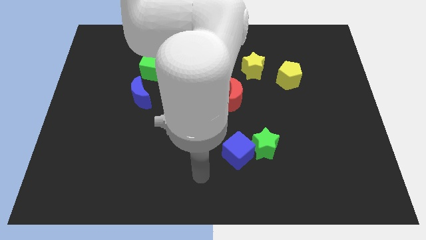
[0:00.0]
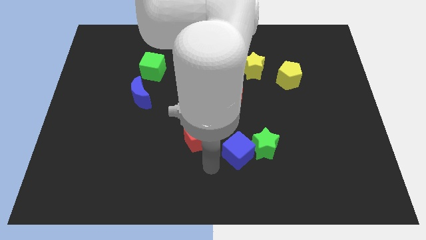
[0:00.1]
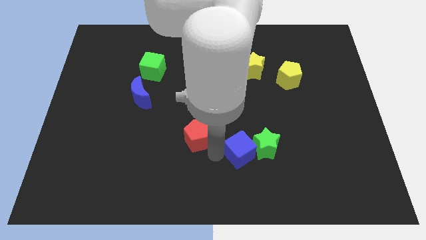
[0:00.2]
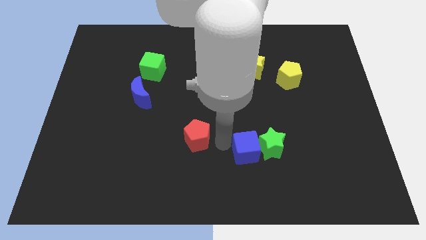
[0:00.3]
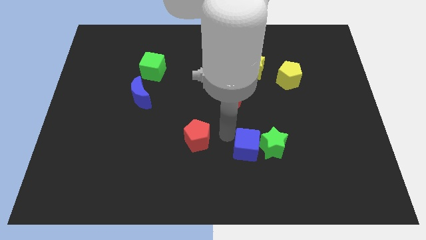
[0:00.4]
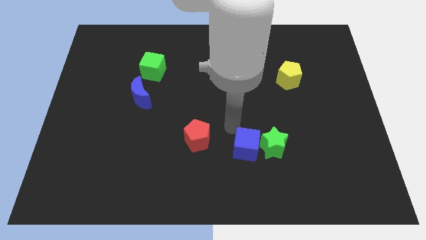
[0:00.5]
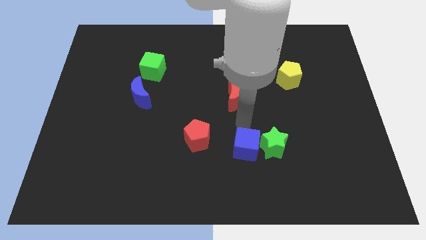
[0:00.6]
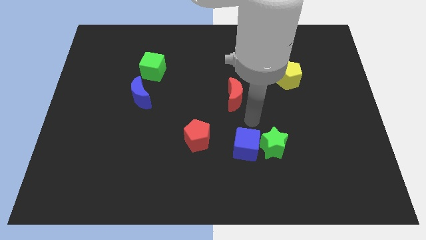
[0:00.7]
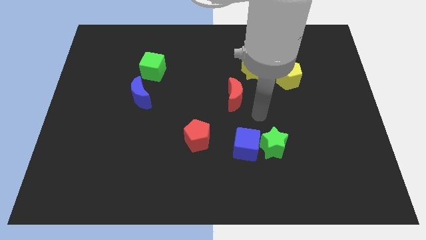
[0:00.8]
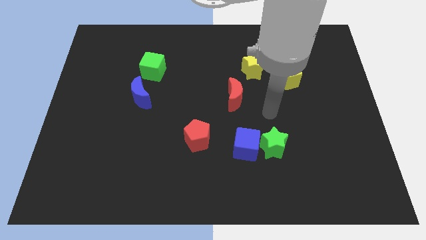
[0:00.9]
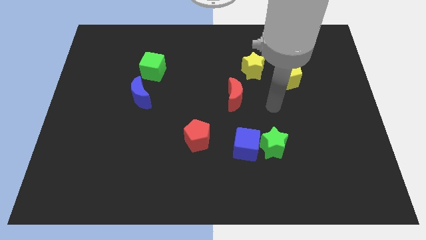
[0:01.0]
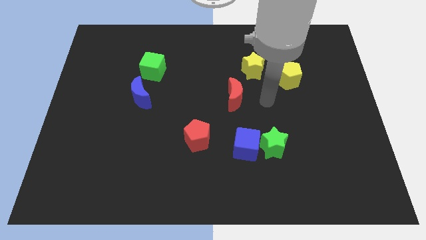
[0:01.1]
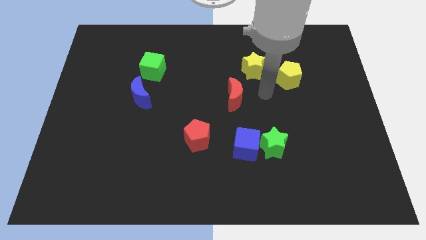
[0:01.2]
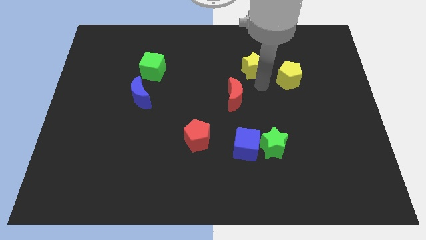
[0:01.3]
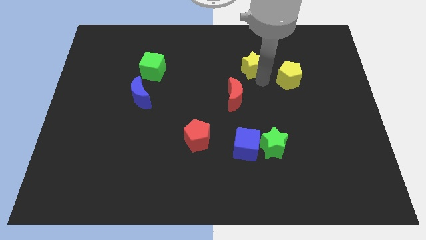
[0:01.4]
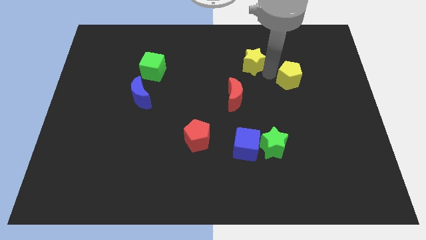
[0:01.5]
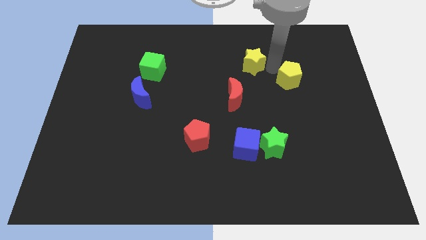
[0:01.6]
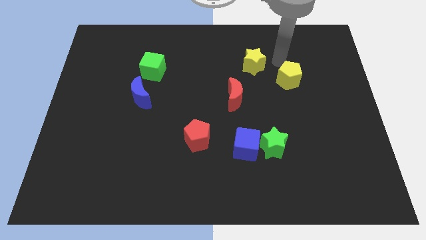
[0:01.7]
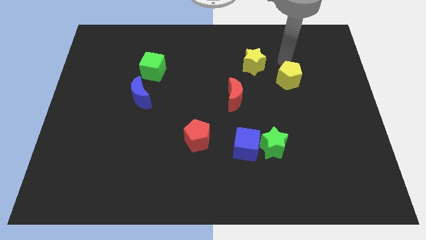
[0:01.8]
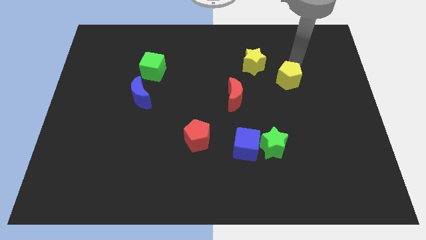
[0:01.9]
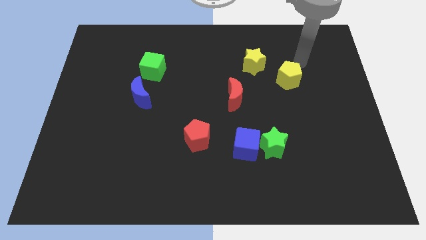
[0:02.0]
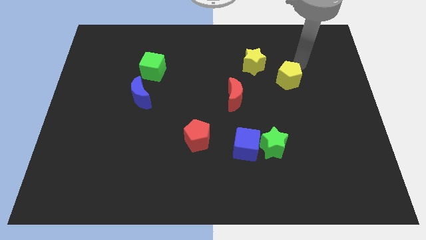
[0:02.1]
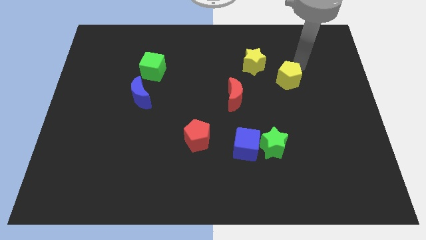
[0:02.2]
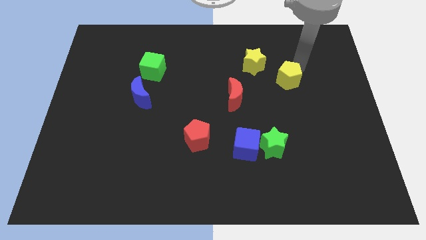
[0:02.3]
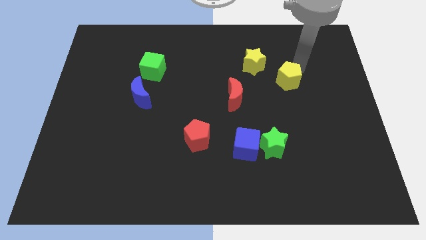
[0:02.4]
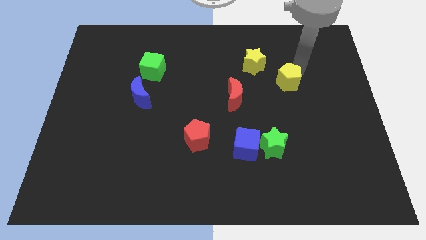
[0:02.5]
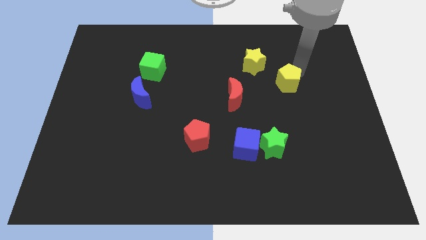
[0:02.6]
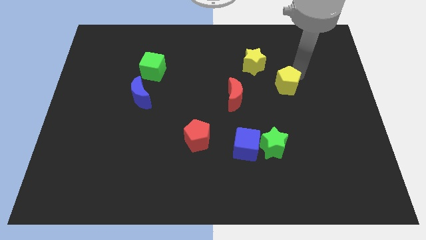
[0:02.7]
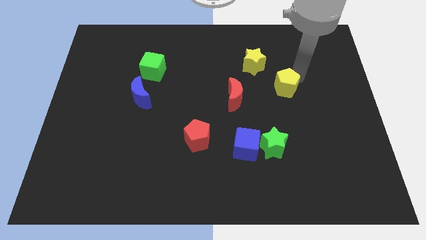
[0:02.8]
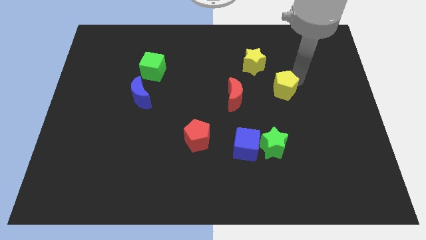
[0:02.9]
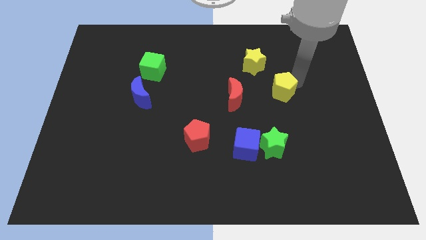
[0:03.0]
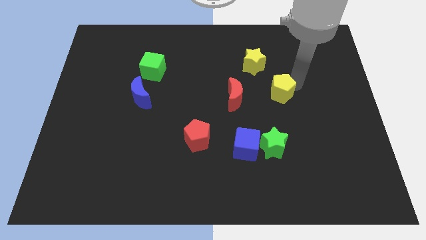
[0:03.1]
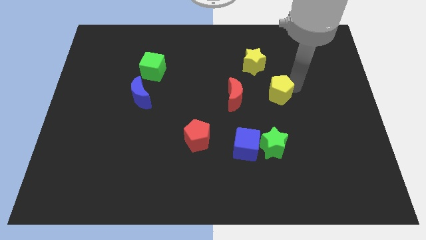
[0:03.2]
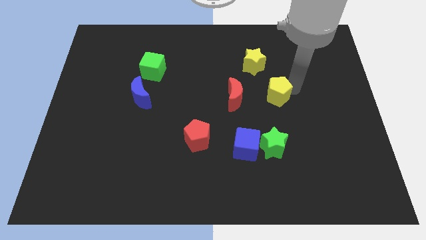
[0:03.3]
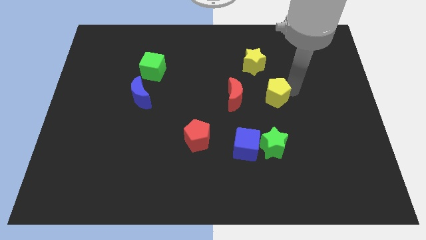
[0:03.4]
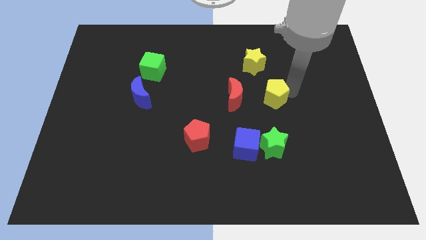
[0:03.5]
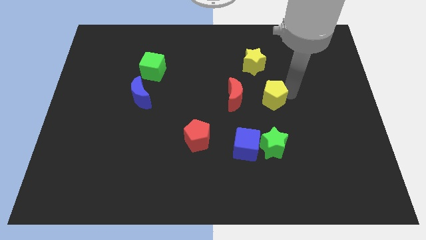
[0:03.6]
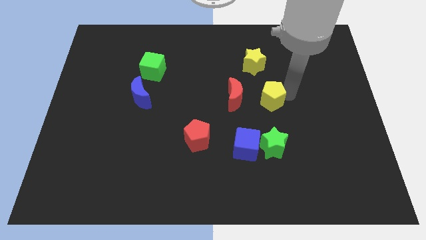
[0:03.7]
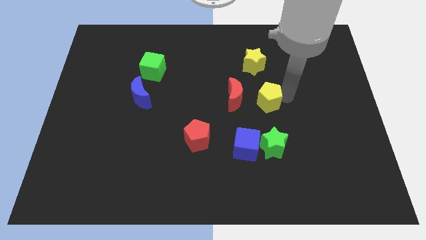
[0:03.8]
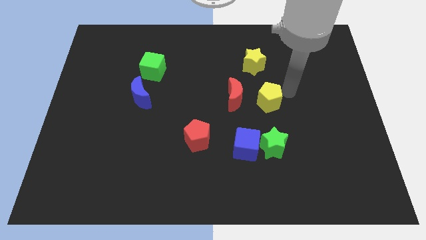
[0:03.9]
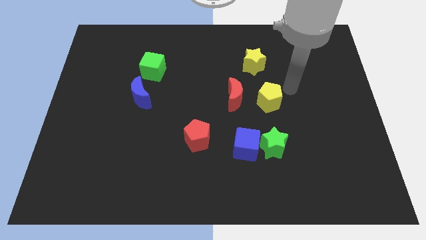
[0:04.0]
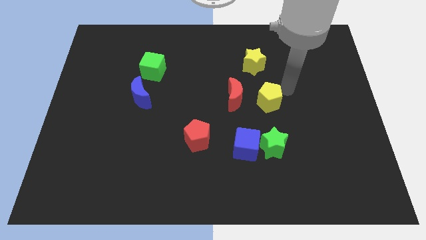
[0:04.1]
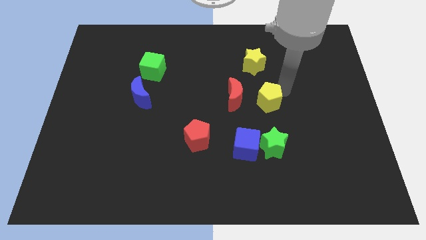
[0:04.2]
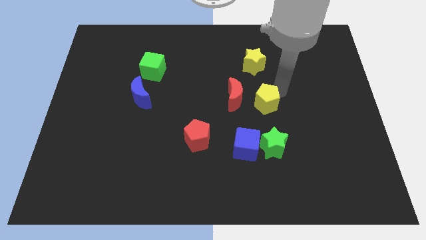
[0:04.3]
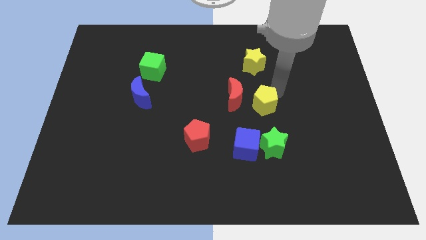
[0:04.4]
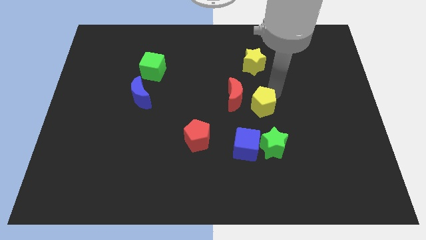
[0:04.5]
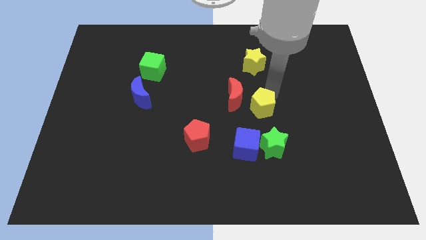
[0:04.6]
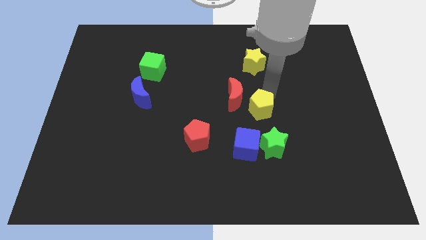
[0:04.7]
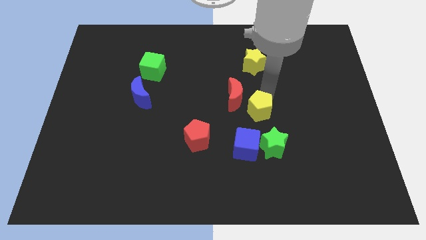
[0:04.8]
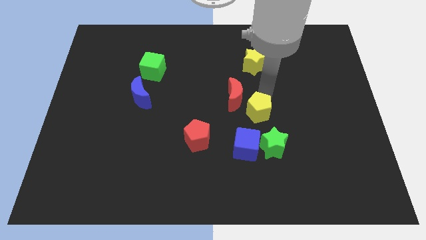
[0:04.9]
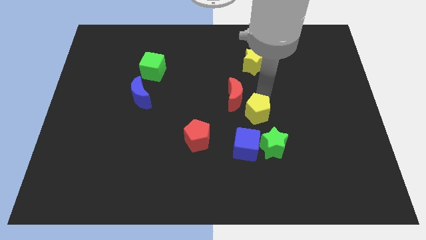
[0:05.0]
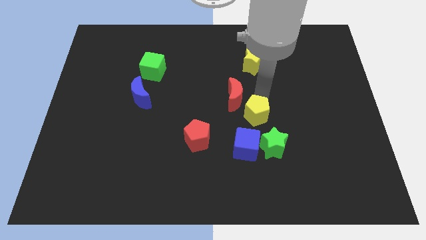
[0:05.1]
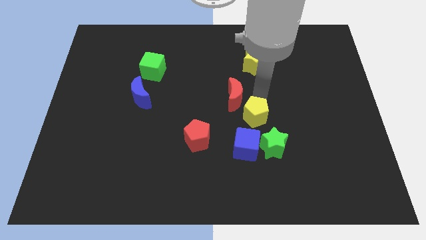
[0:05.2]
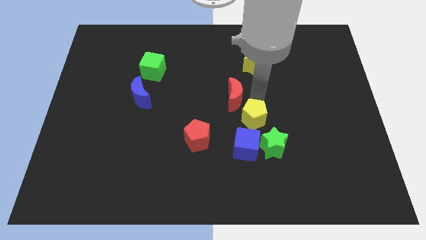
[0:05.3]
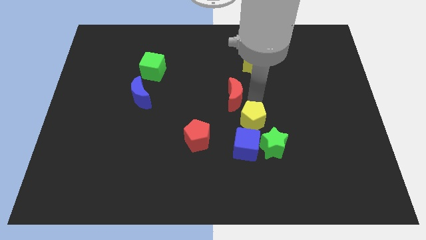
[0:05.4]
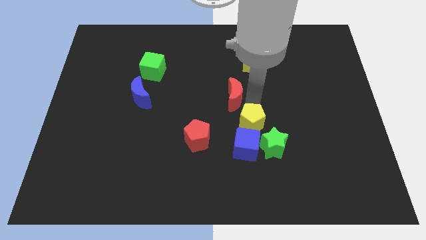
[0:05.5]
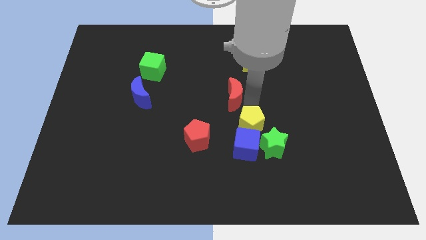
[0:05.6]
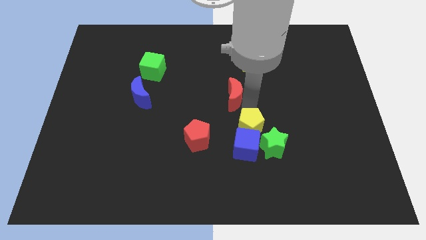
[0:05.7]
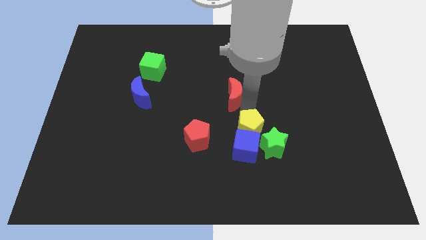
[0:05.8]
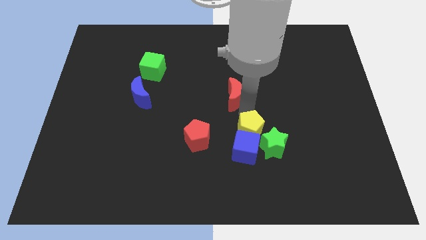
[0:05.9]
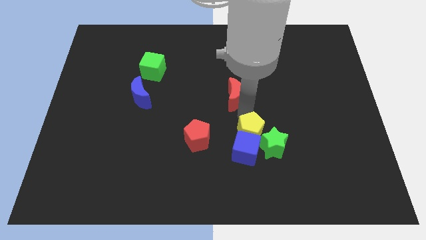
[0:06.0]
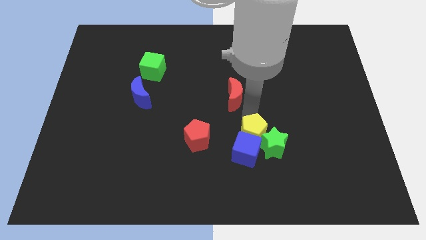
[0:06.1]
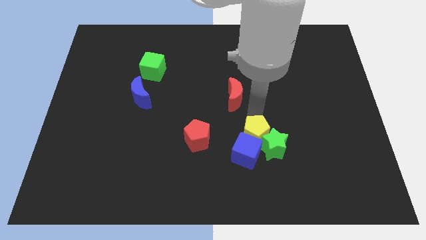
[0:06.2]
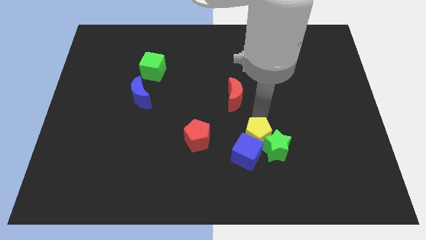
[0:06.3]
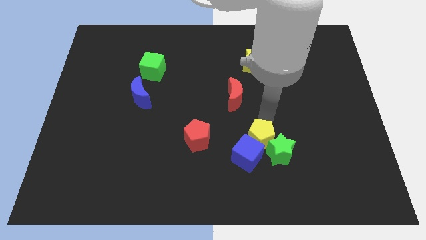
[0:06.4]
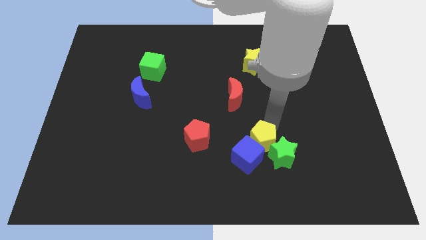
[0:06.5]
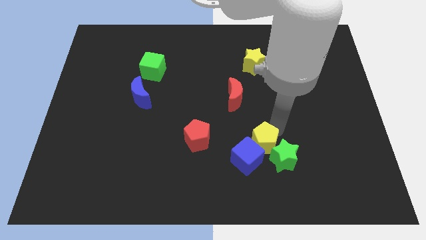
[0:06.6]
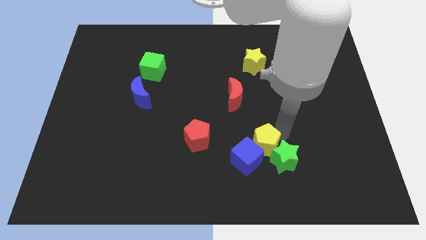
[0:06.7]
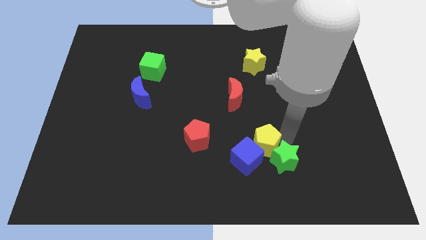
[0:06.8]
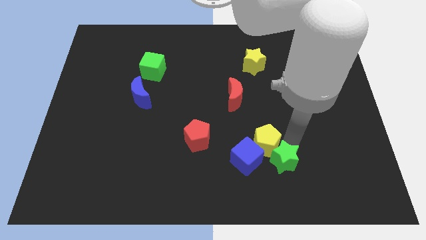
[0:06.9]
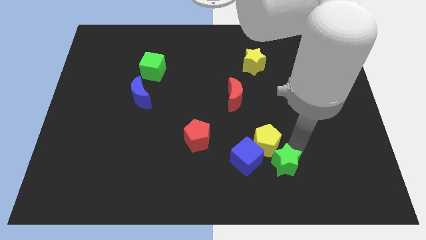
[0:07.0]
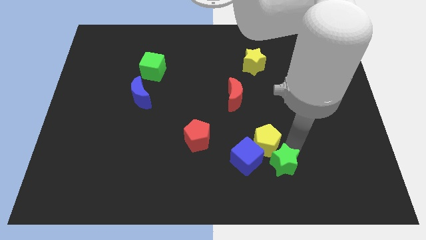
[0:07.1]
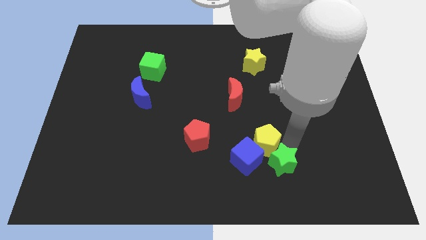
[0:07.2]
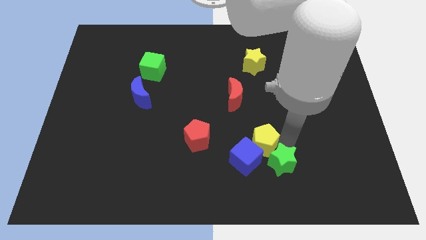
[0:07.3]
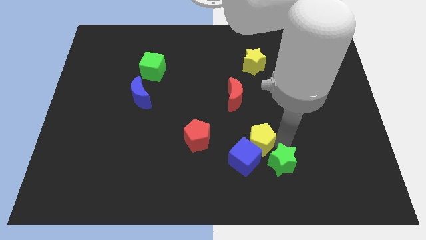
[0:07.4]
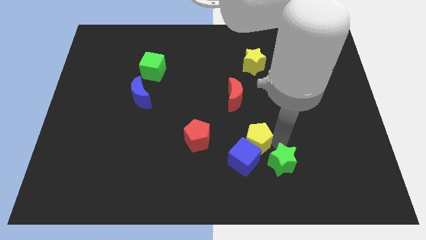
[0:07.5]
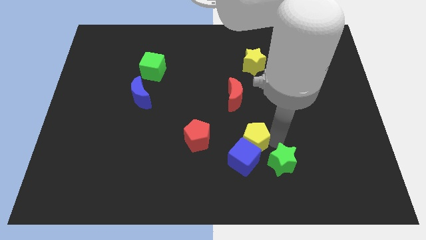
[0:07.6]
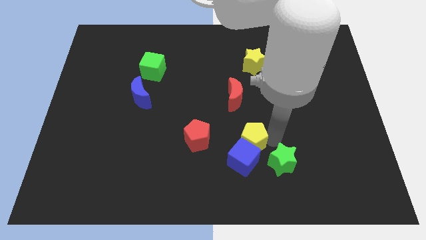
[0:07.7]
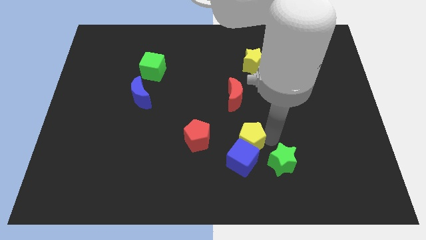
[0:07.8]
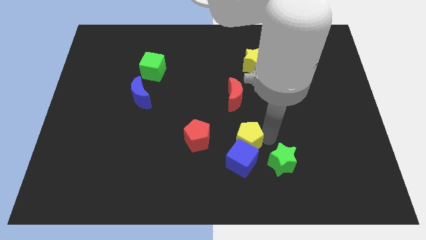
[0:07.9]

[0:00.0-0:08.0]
push the yellow pentagon down and to the left
